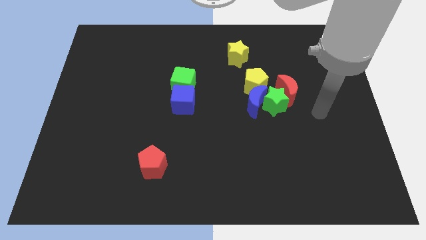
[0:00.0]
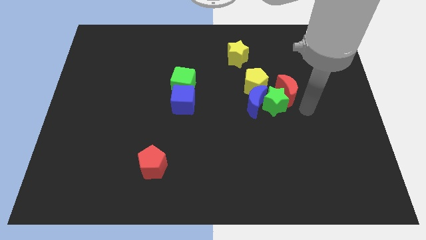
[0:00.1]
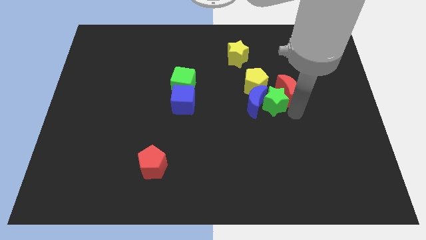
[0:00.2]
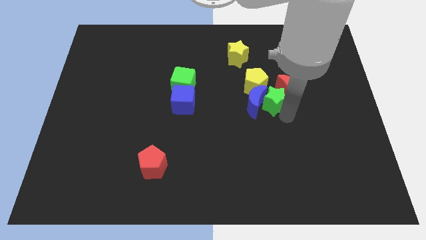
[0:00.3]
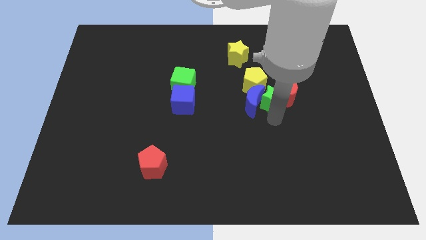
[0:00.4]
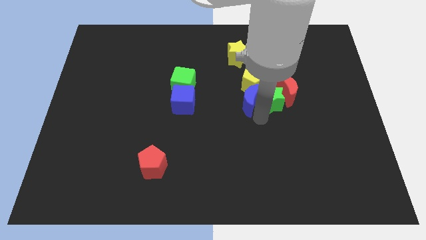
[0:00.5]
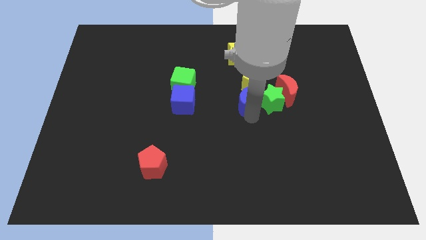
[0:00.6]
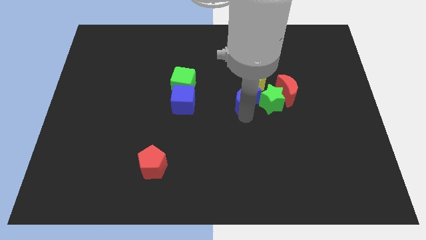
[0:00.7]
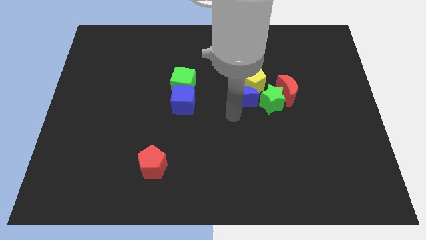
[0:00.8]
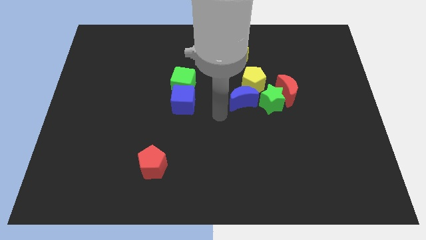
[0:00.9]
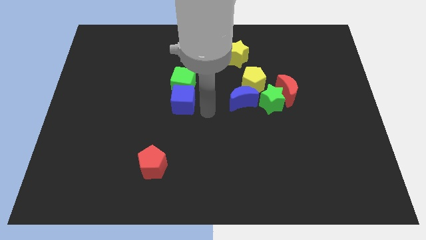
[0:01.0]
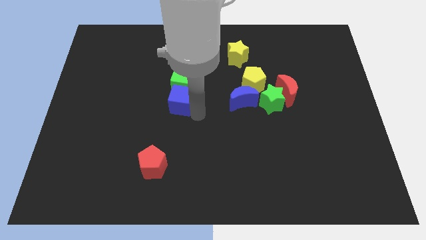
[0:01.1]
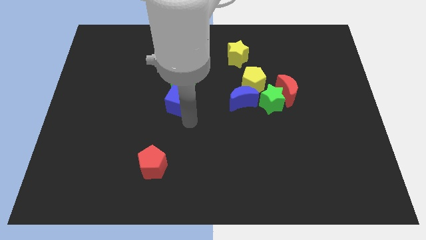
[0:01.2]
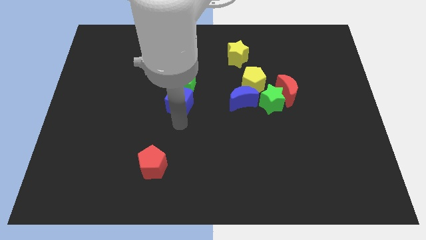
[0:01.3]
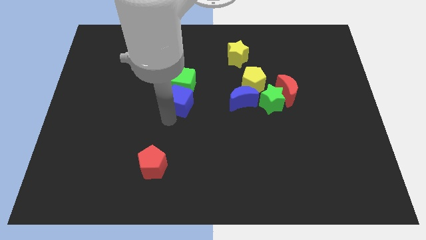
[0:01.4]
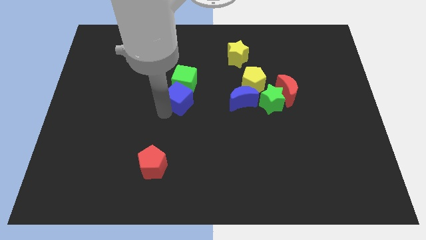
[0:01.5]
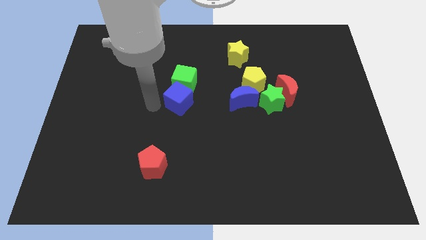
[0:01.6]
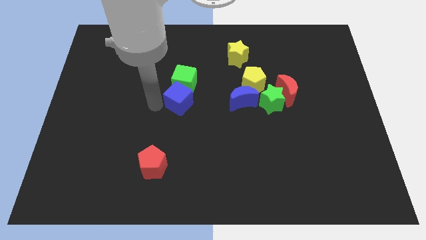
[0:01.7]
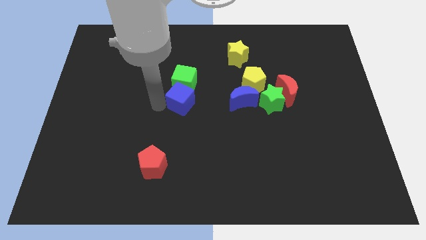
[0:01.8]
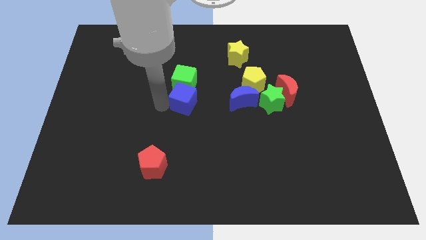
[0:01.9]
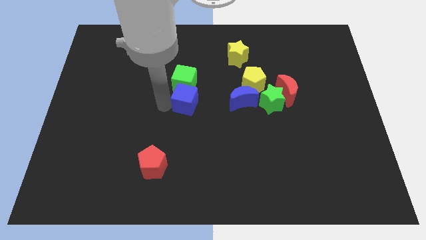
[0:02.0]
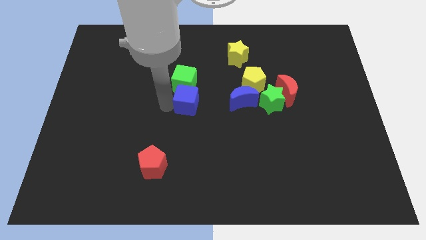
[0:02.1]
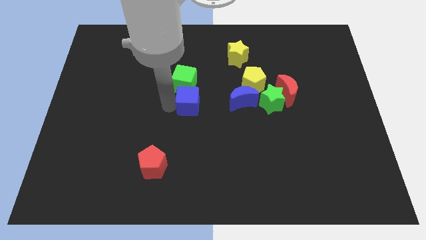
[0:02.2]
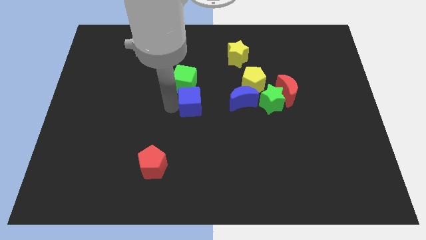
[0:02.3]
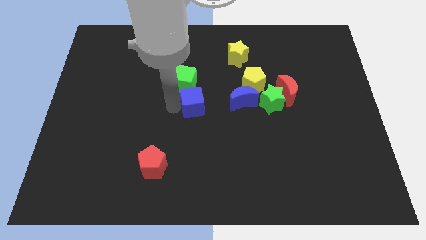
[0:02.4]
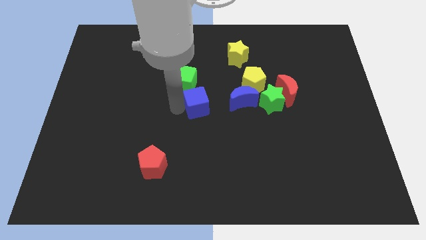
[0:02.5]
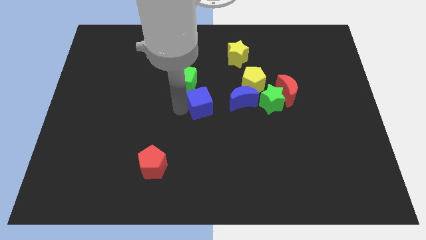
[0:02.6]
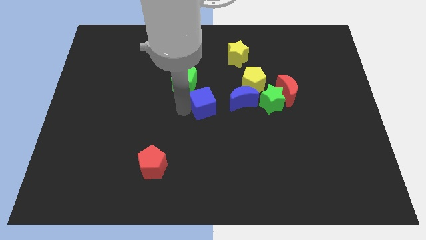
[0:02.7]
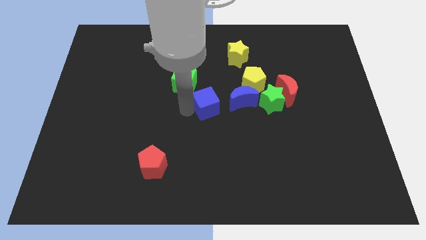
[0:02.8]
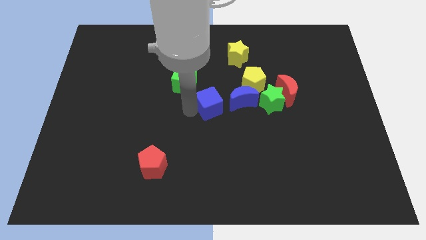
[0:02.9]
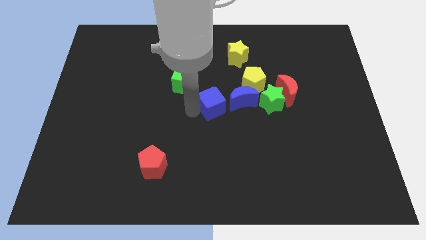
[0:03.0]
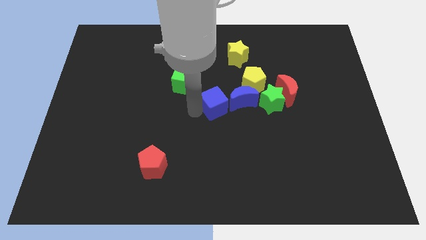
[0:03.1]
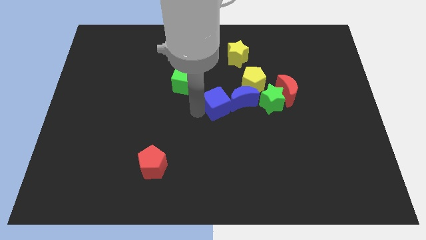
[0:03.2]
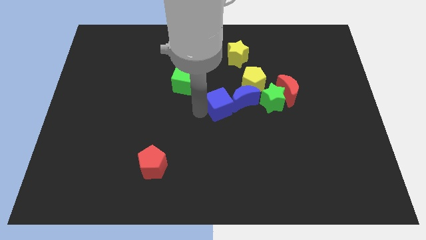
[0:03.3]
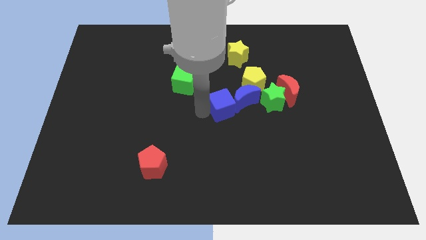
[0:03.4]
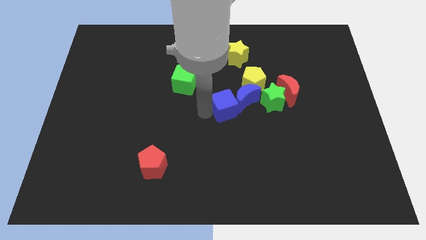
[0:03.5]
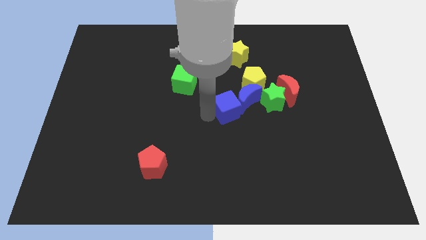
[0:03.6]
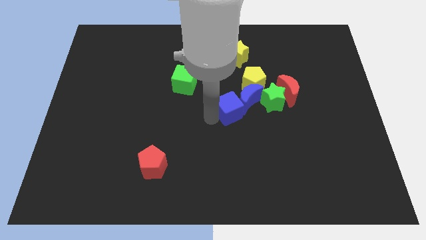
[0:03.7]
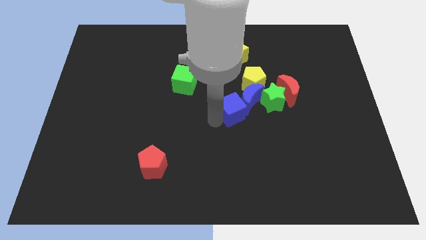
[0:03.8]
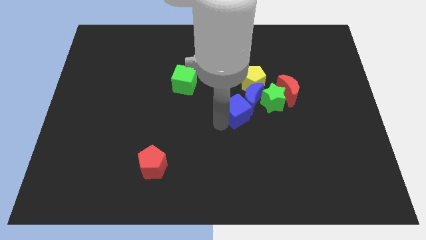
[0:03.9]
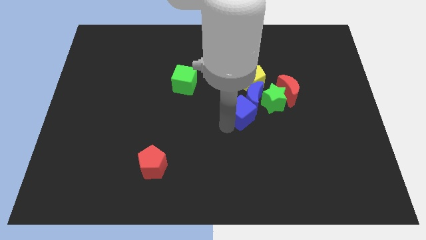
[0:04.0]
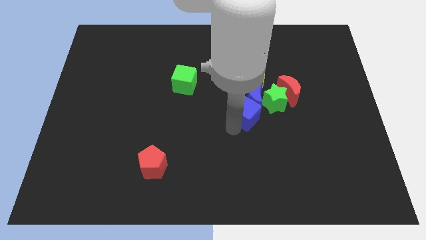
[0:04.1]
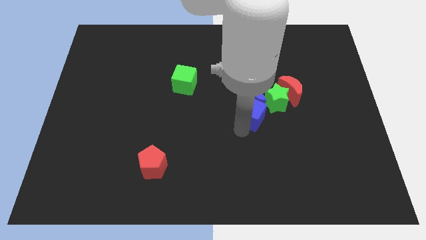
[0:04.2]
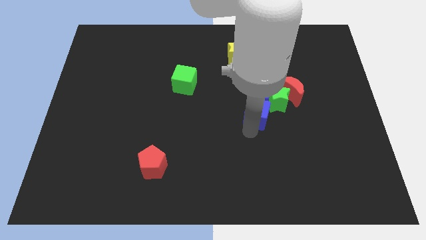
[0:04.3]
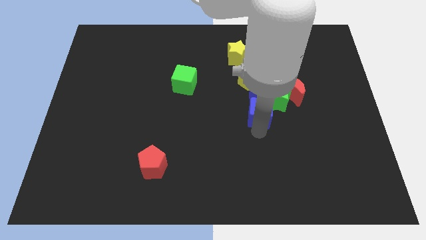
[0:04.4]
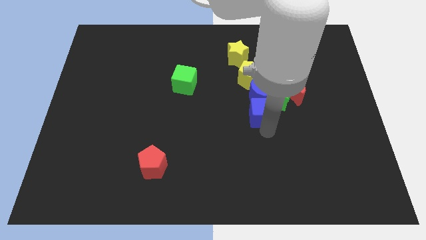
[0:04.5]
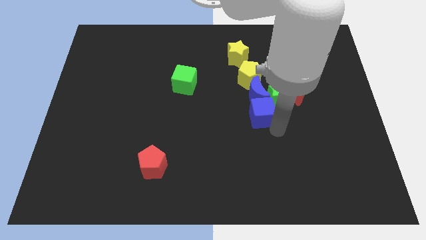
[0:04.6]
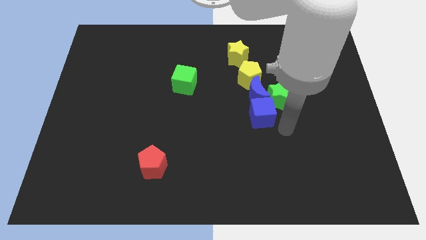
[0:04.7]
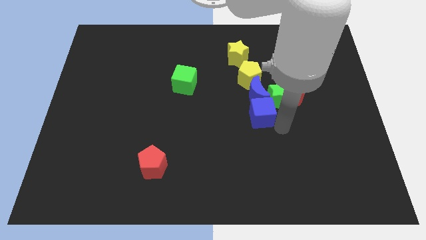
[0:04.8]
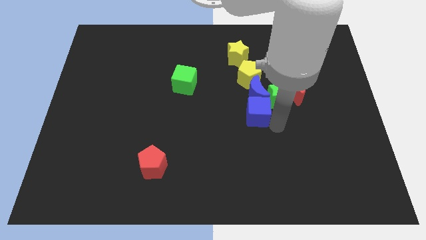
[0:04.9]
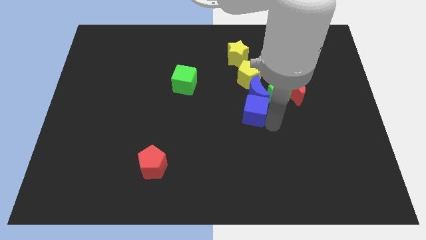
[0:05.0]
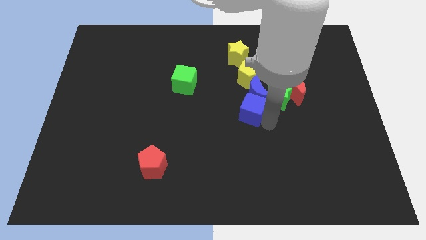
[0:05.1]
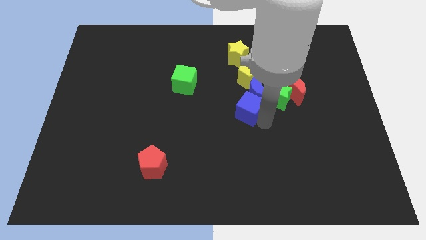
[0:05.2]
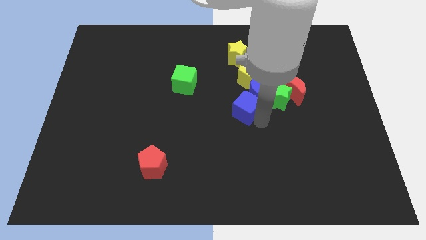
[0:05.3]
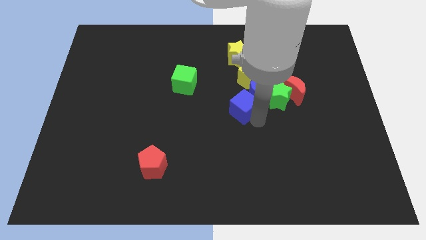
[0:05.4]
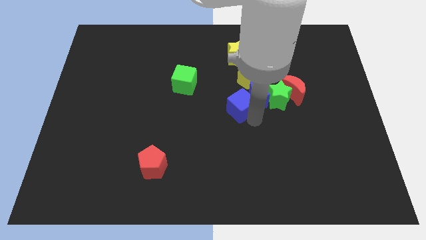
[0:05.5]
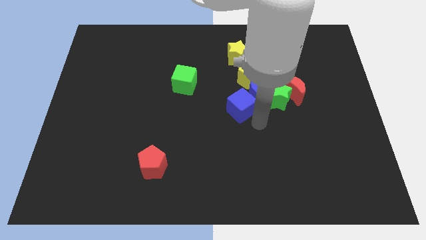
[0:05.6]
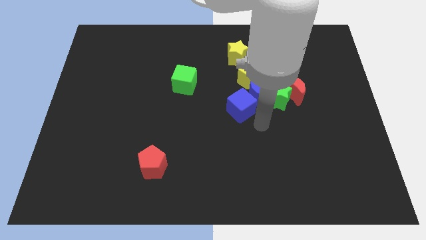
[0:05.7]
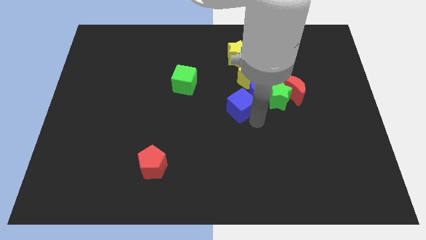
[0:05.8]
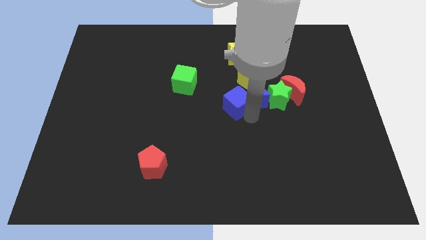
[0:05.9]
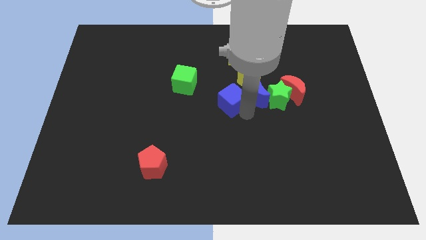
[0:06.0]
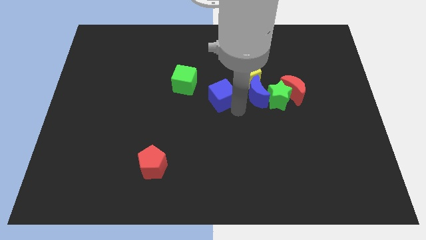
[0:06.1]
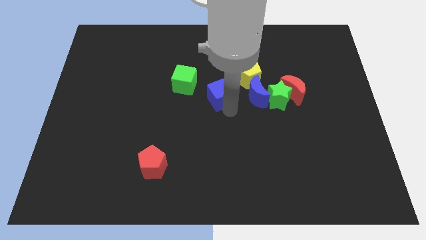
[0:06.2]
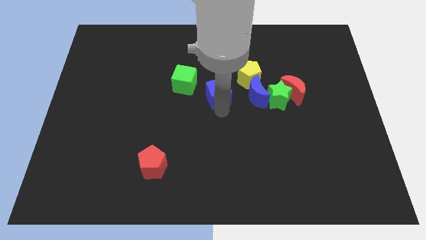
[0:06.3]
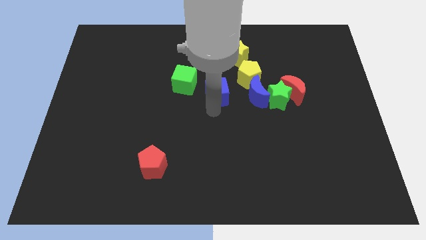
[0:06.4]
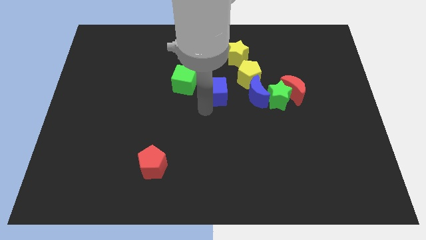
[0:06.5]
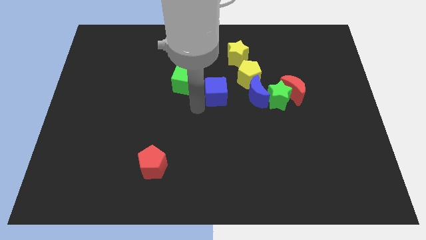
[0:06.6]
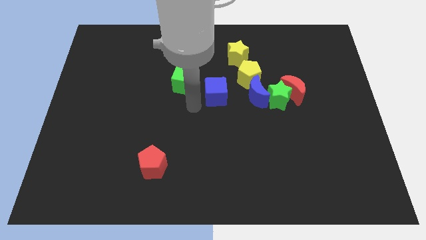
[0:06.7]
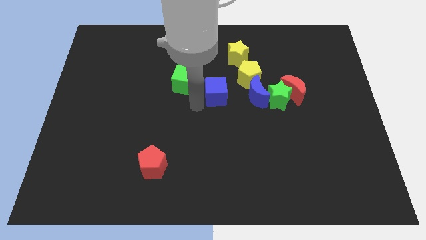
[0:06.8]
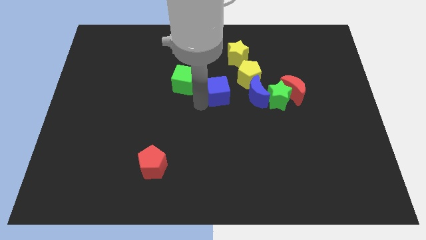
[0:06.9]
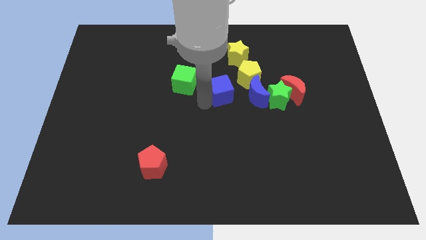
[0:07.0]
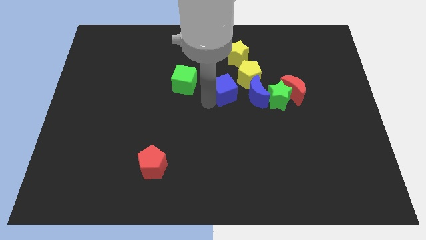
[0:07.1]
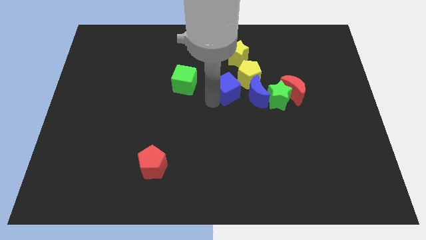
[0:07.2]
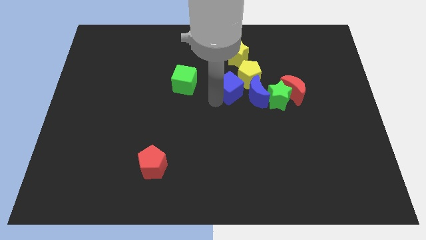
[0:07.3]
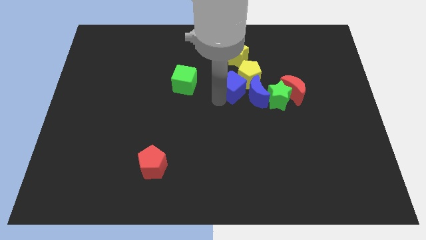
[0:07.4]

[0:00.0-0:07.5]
put the blue cube next to the yellow pentagon
